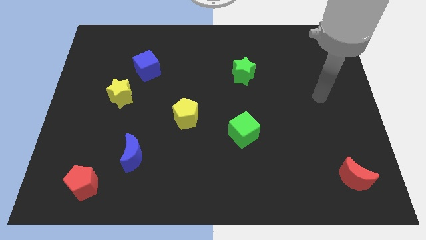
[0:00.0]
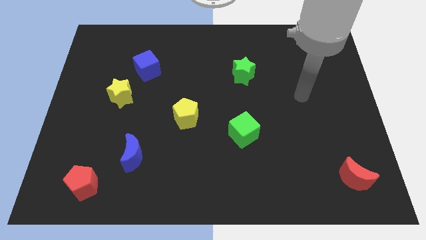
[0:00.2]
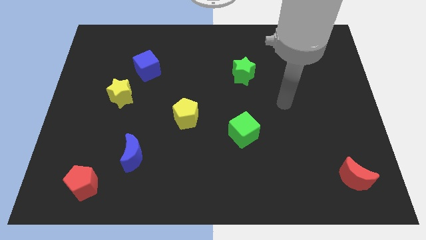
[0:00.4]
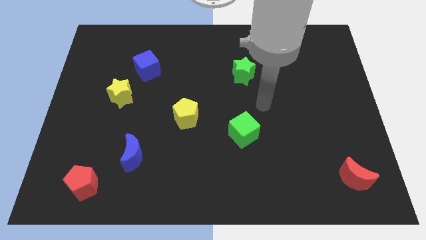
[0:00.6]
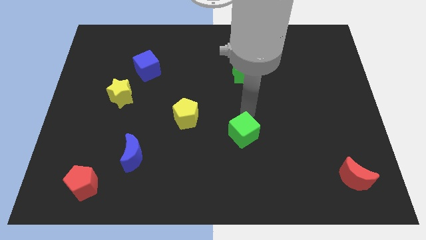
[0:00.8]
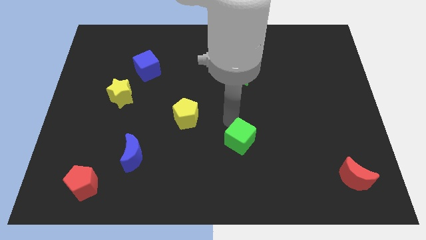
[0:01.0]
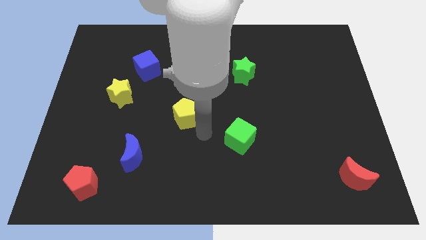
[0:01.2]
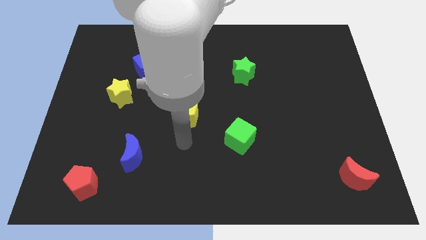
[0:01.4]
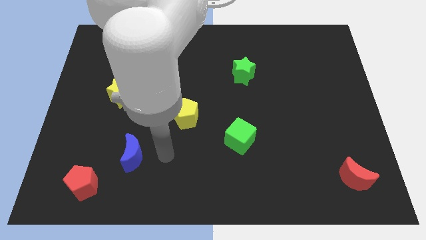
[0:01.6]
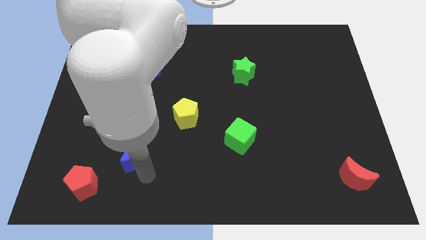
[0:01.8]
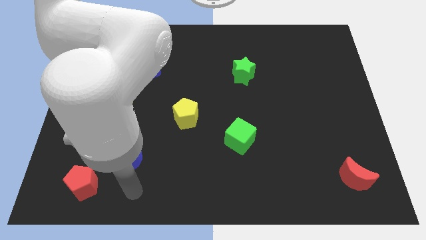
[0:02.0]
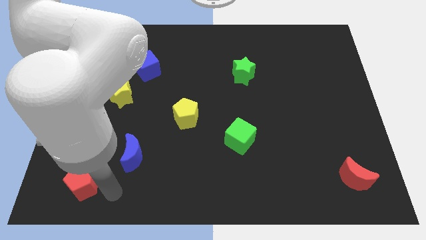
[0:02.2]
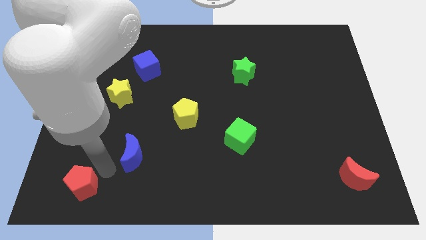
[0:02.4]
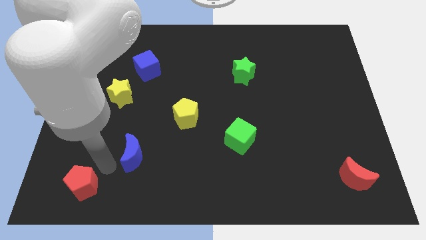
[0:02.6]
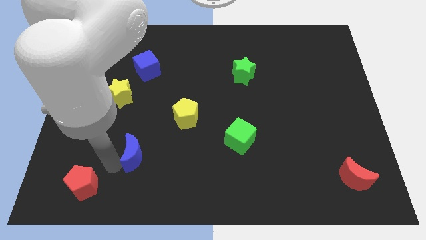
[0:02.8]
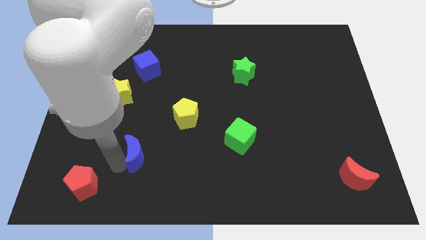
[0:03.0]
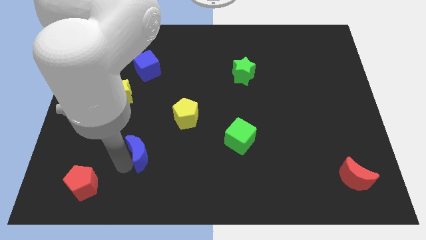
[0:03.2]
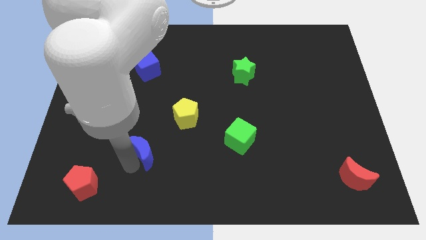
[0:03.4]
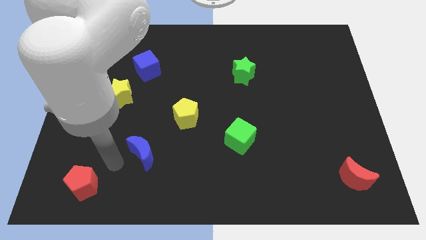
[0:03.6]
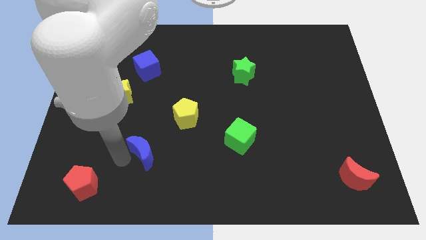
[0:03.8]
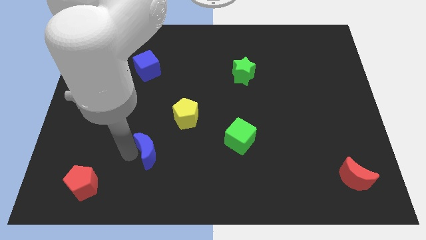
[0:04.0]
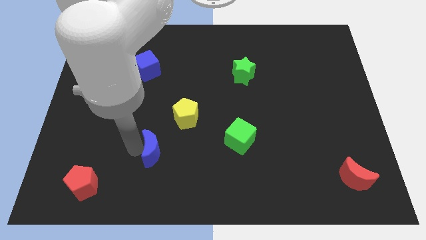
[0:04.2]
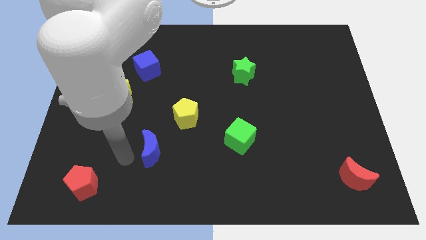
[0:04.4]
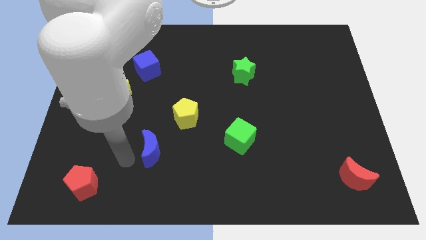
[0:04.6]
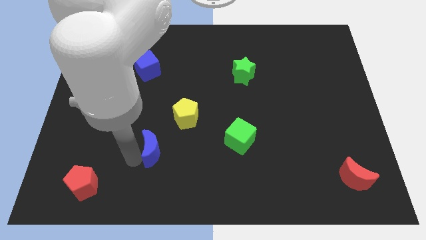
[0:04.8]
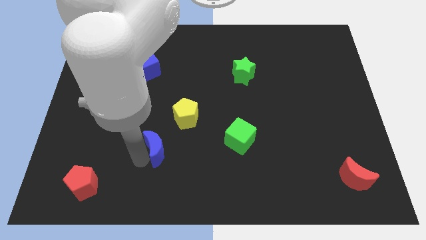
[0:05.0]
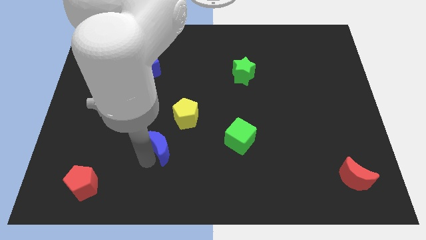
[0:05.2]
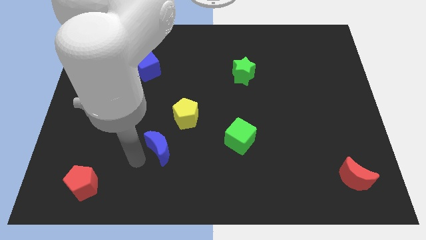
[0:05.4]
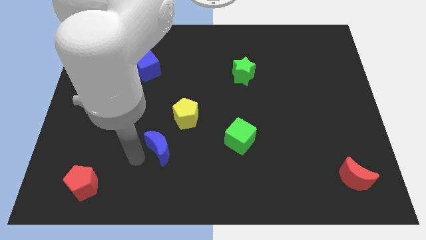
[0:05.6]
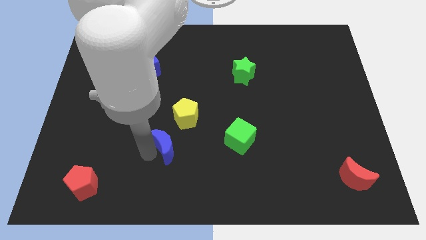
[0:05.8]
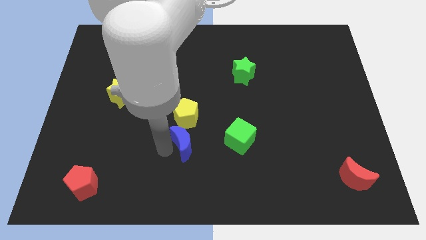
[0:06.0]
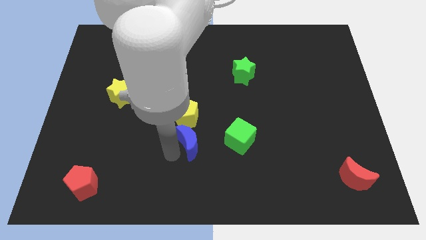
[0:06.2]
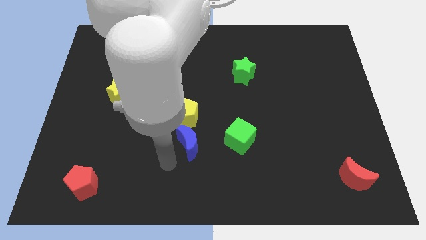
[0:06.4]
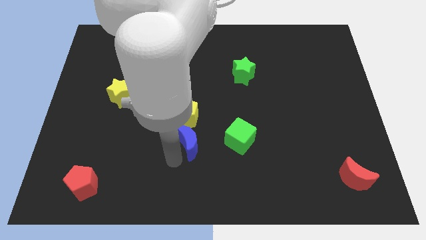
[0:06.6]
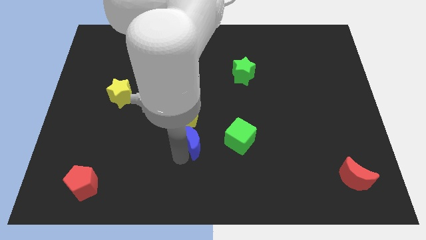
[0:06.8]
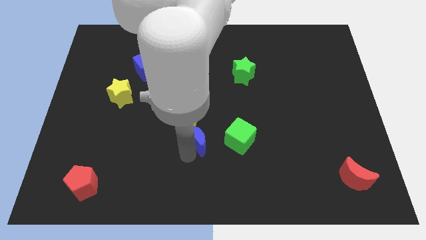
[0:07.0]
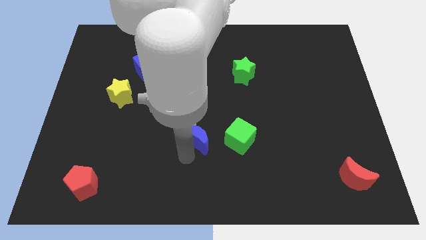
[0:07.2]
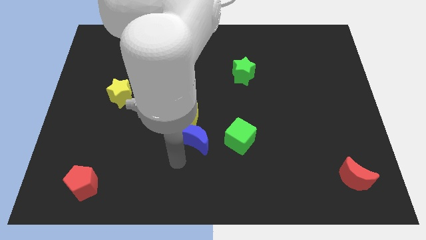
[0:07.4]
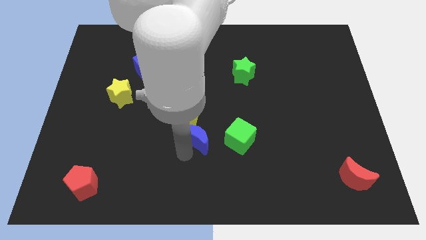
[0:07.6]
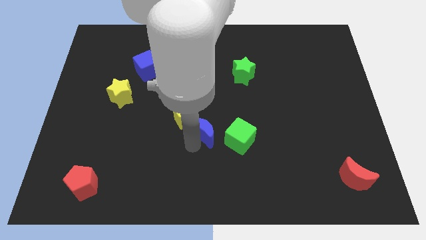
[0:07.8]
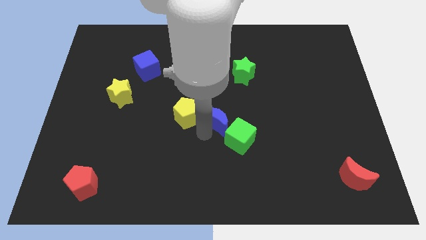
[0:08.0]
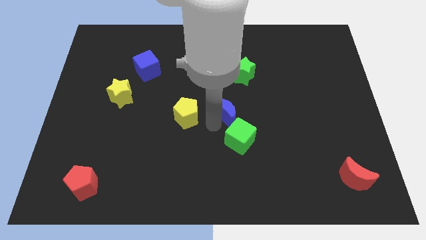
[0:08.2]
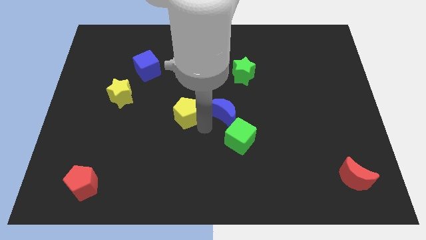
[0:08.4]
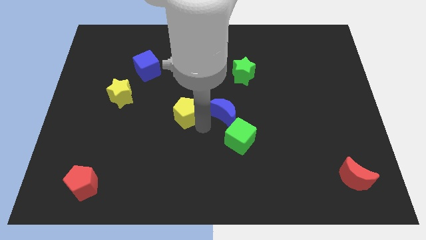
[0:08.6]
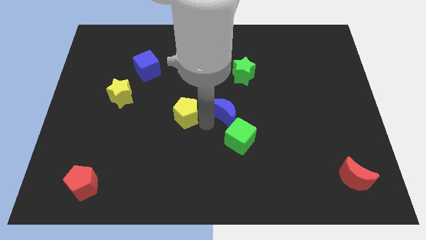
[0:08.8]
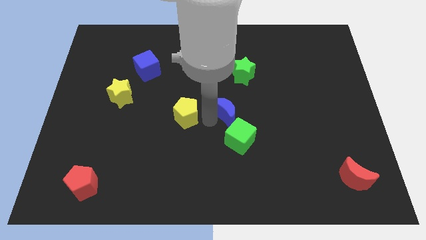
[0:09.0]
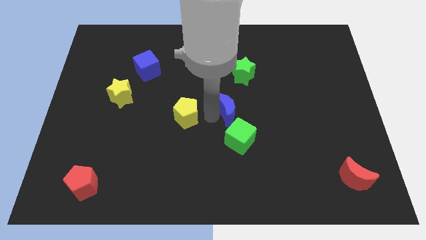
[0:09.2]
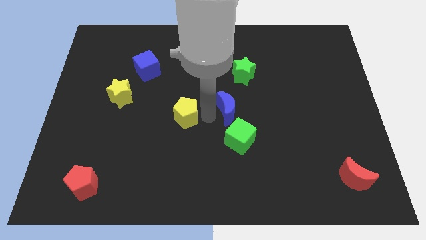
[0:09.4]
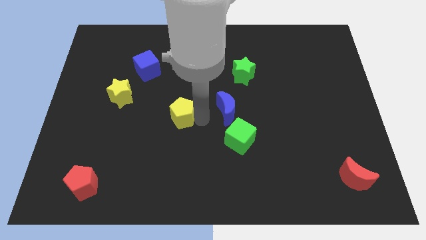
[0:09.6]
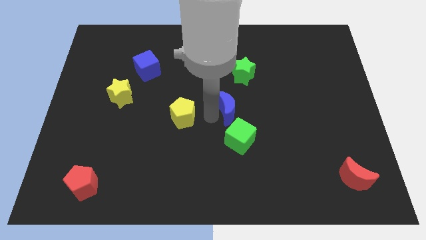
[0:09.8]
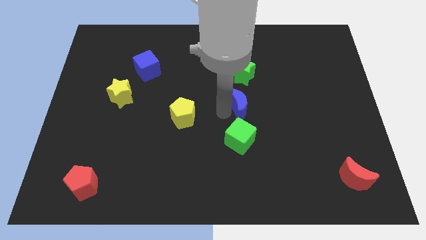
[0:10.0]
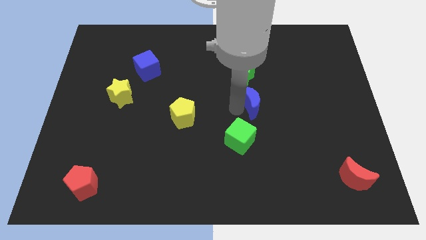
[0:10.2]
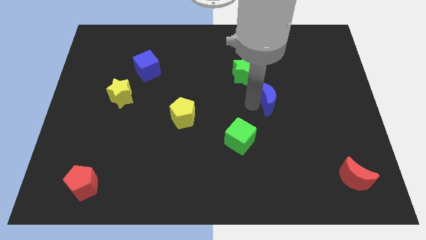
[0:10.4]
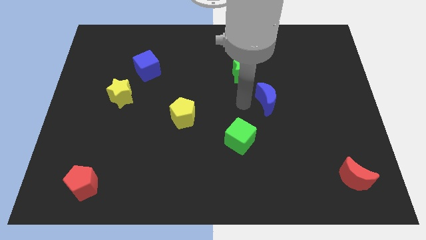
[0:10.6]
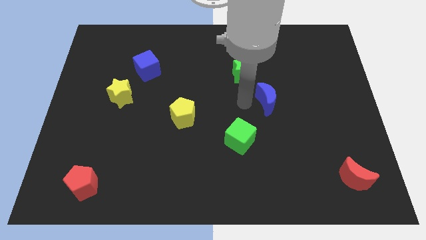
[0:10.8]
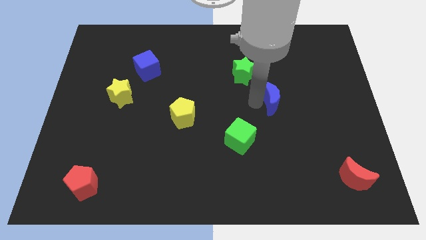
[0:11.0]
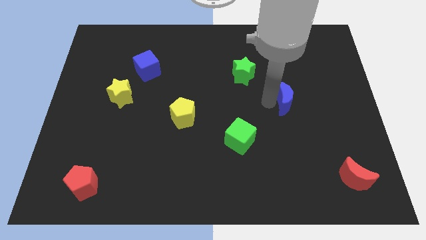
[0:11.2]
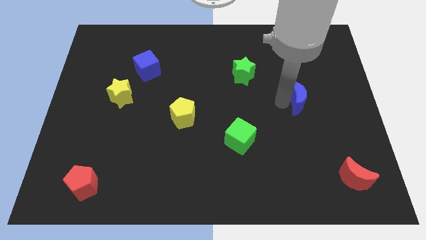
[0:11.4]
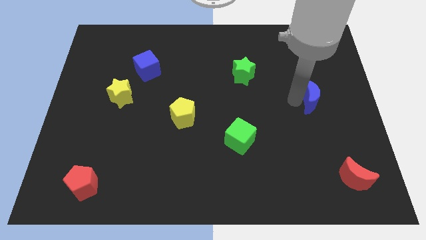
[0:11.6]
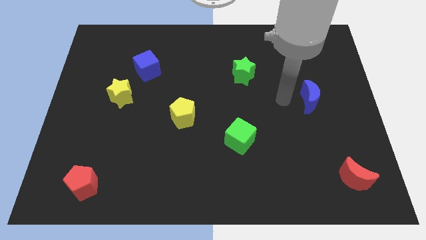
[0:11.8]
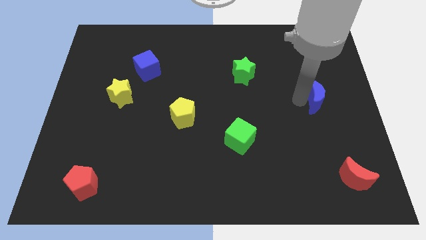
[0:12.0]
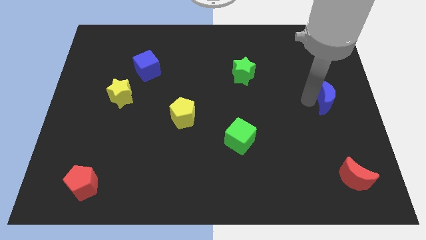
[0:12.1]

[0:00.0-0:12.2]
slide the blue moon to the center right

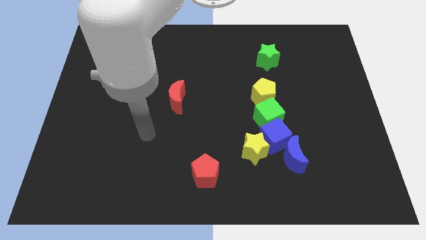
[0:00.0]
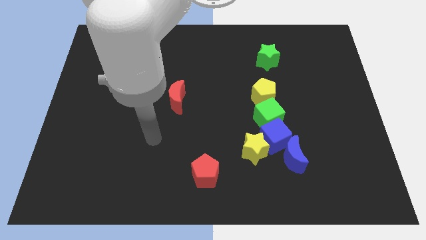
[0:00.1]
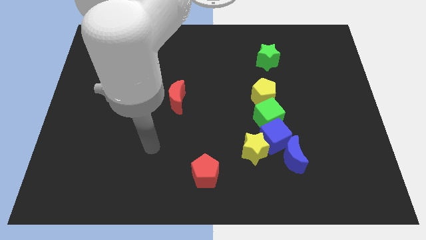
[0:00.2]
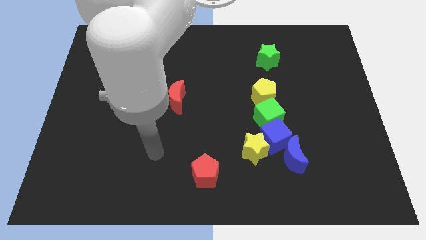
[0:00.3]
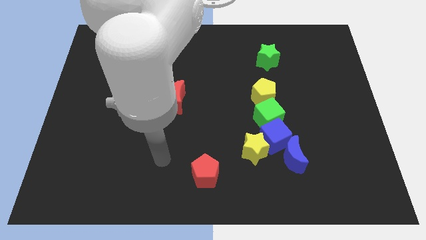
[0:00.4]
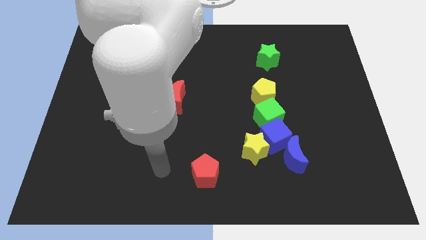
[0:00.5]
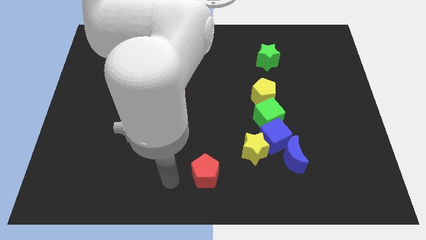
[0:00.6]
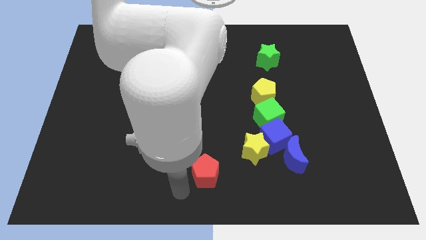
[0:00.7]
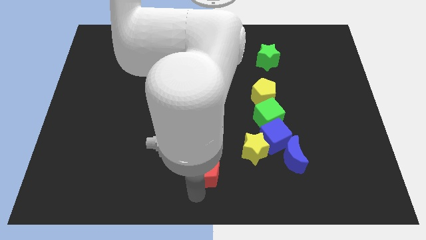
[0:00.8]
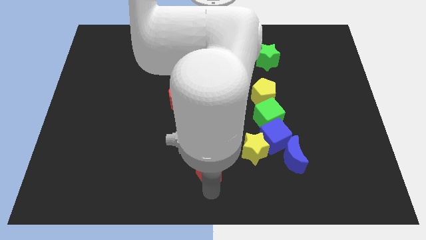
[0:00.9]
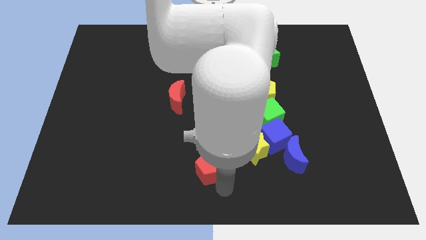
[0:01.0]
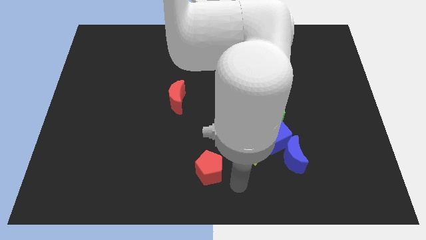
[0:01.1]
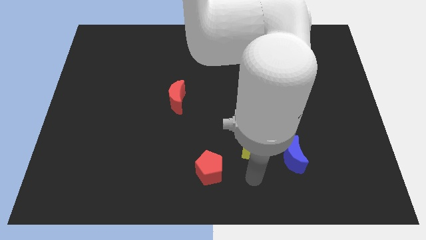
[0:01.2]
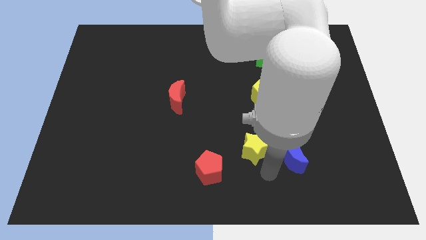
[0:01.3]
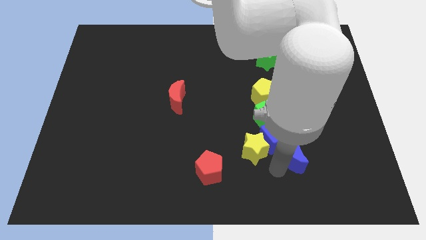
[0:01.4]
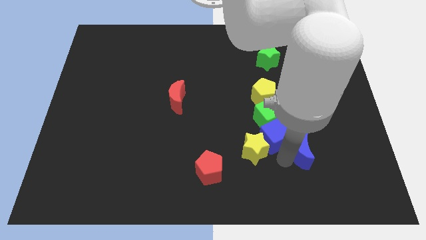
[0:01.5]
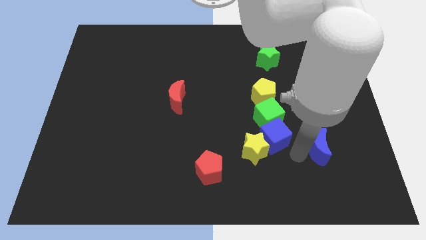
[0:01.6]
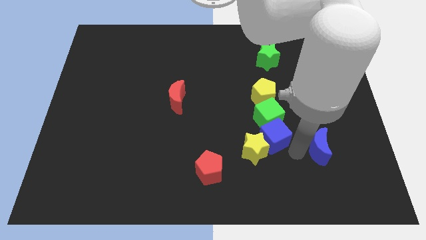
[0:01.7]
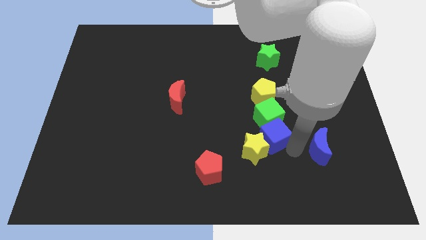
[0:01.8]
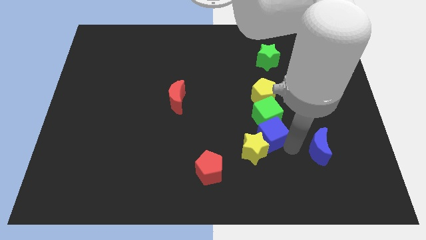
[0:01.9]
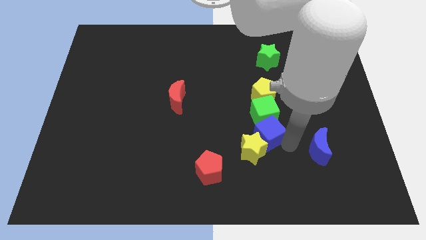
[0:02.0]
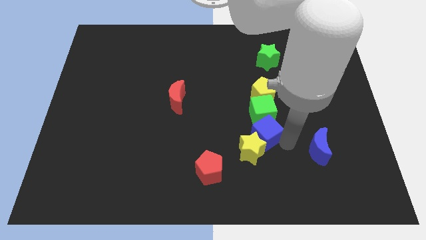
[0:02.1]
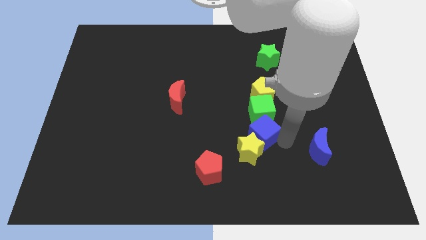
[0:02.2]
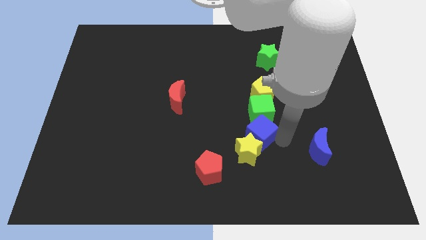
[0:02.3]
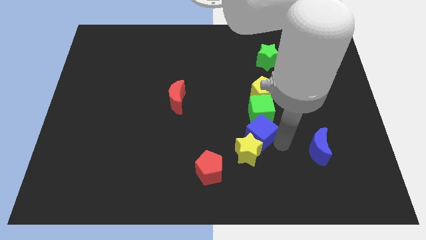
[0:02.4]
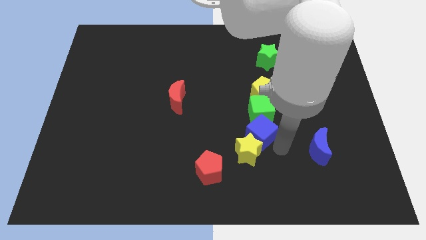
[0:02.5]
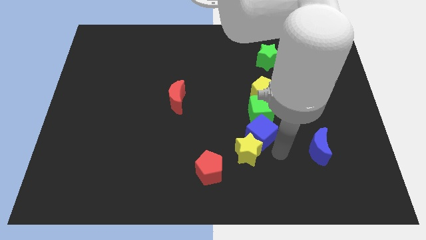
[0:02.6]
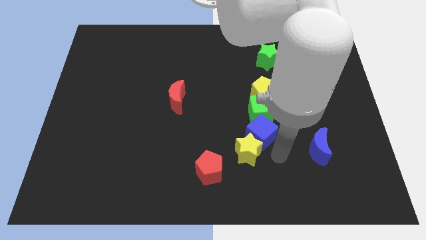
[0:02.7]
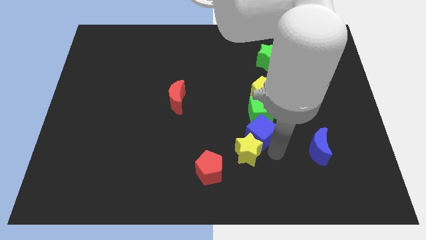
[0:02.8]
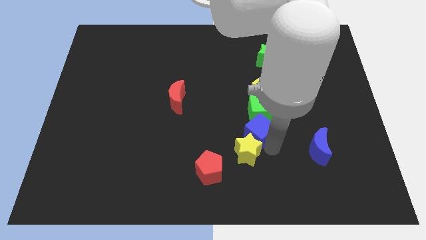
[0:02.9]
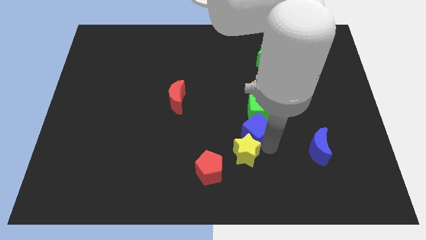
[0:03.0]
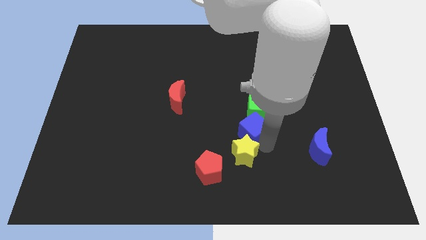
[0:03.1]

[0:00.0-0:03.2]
put the blue cube to the middle
